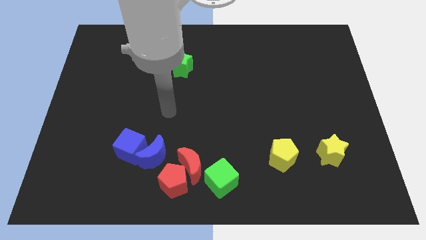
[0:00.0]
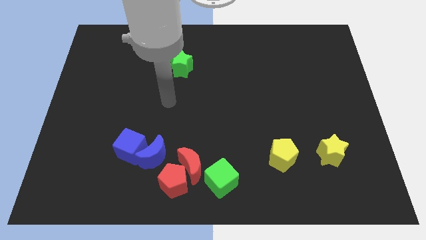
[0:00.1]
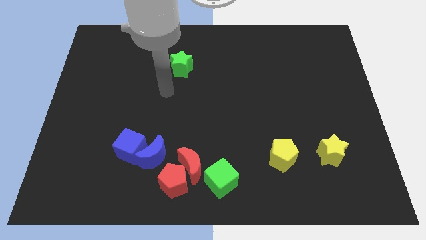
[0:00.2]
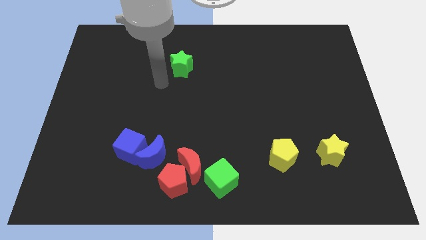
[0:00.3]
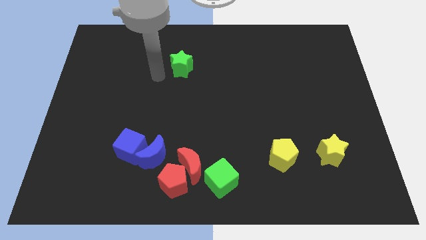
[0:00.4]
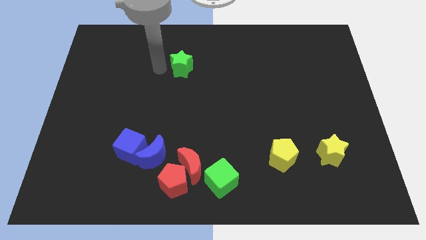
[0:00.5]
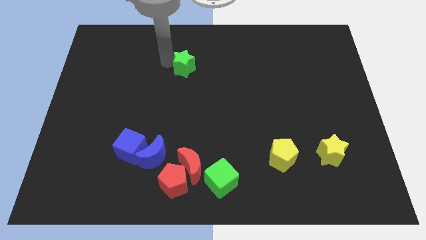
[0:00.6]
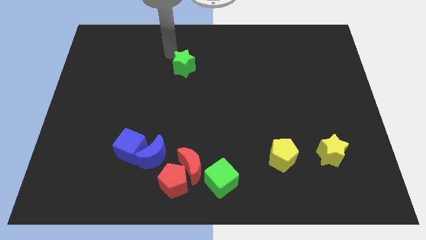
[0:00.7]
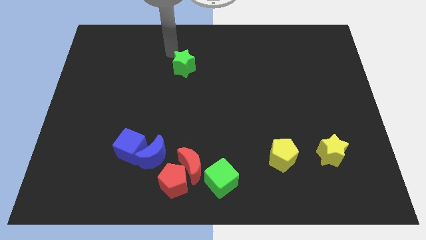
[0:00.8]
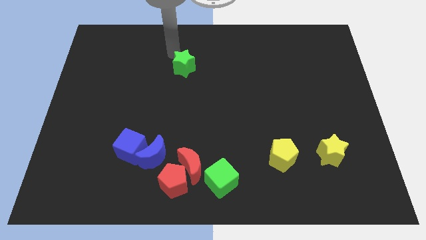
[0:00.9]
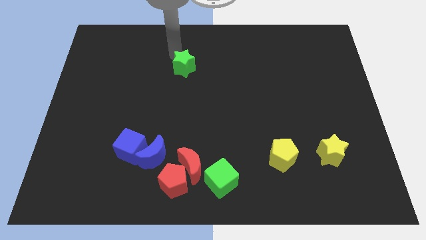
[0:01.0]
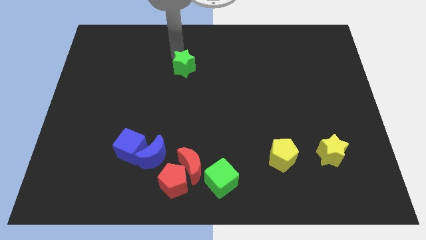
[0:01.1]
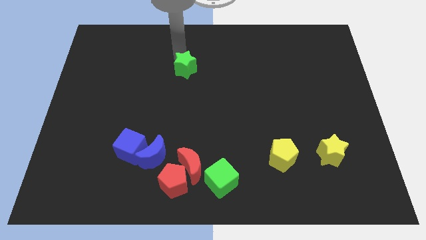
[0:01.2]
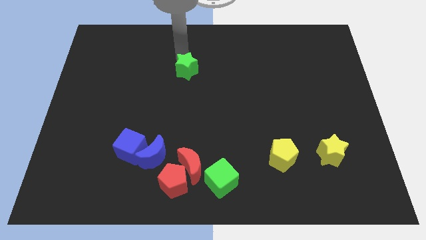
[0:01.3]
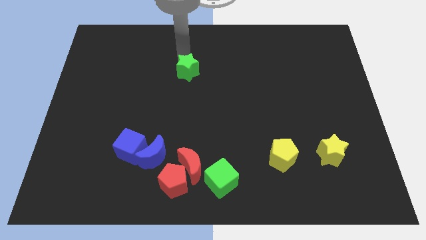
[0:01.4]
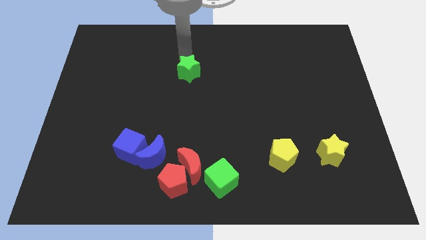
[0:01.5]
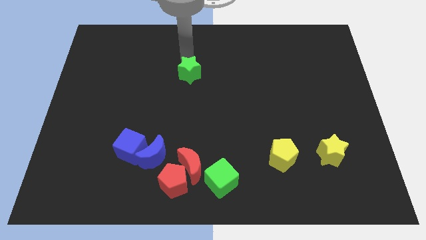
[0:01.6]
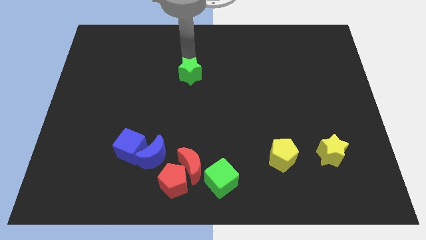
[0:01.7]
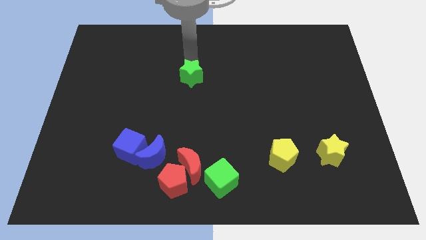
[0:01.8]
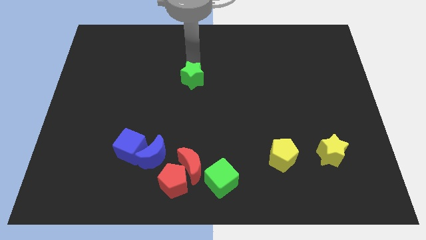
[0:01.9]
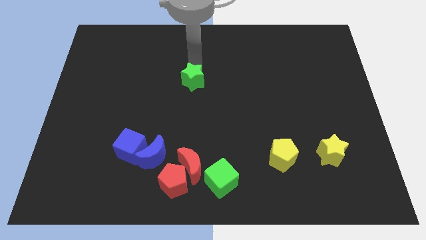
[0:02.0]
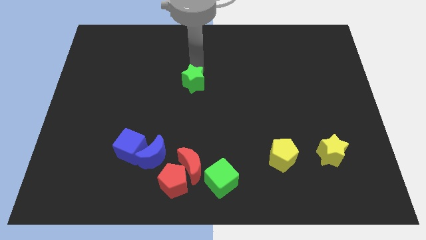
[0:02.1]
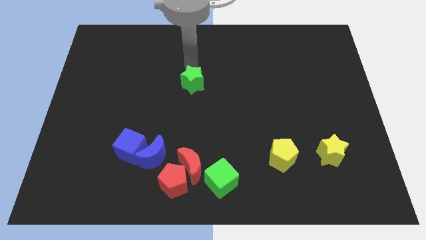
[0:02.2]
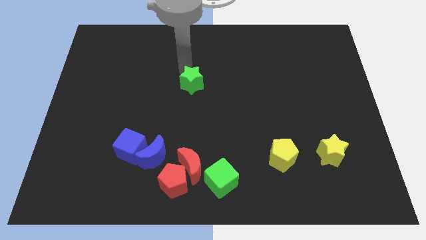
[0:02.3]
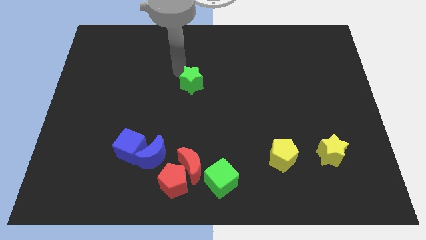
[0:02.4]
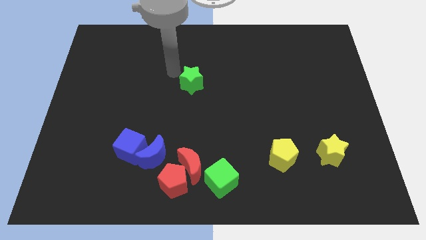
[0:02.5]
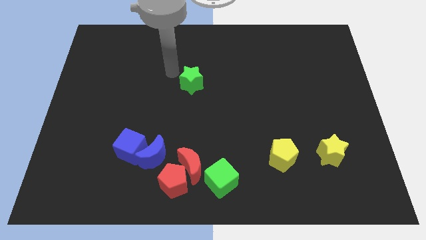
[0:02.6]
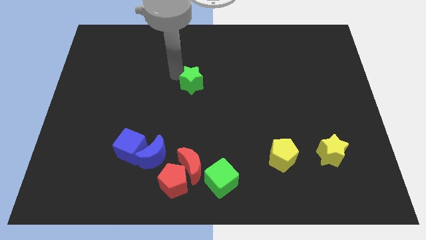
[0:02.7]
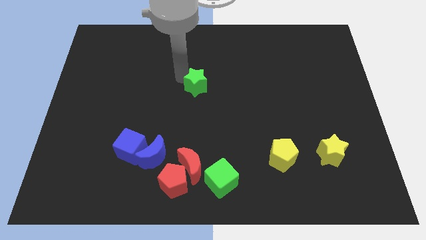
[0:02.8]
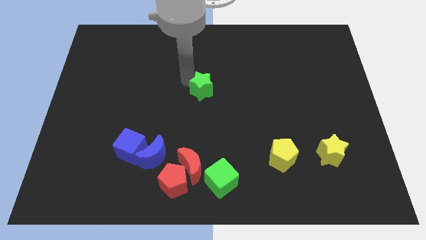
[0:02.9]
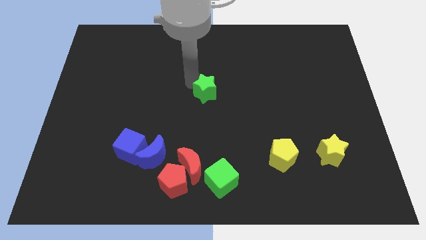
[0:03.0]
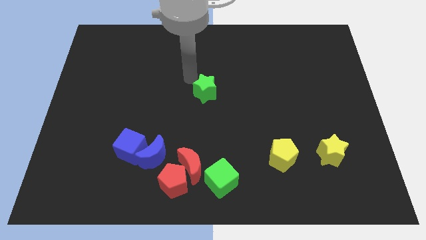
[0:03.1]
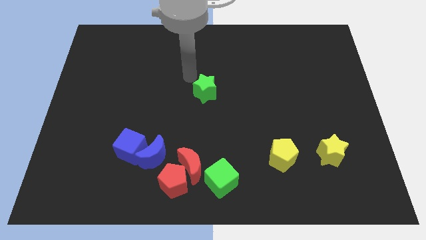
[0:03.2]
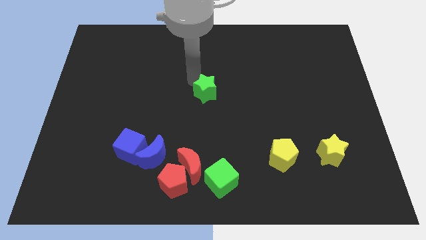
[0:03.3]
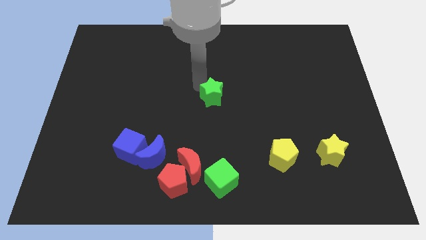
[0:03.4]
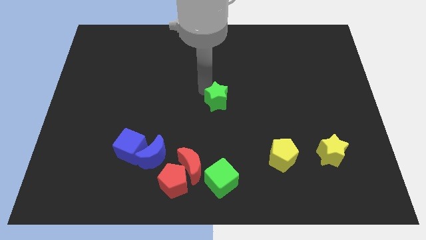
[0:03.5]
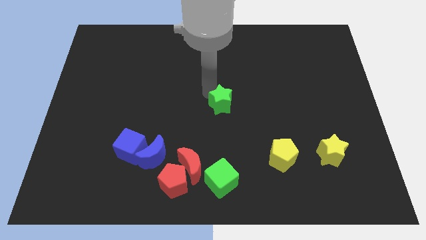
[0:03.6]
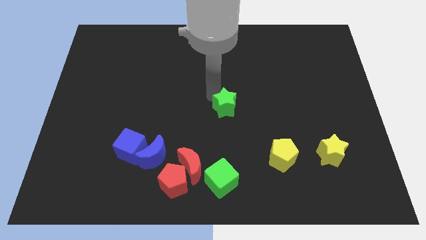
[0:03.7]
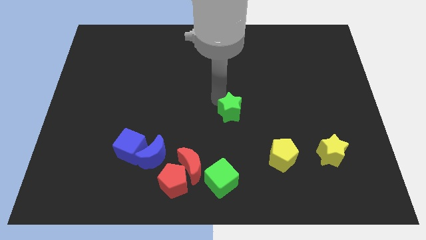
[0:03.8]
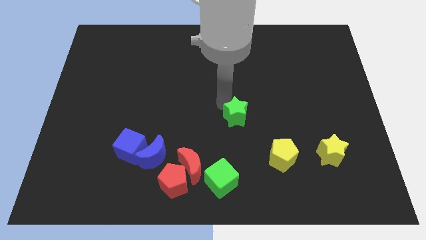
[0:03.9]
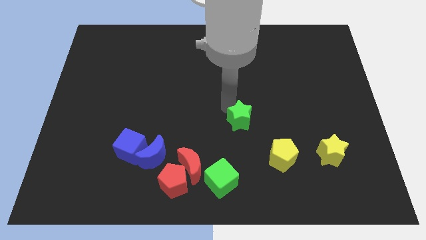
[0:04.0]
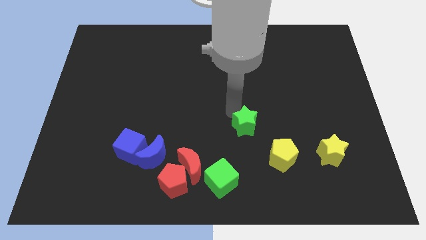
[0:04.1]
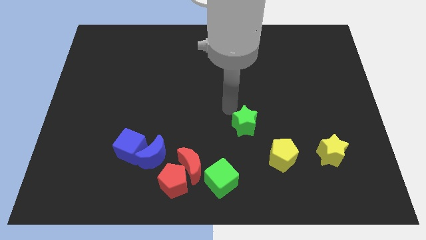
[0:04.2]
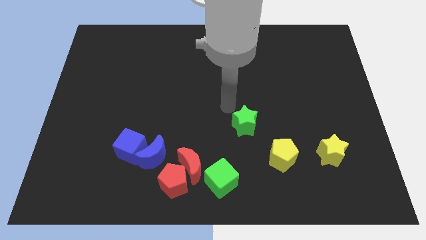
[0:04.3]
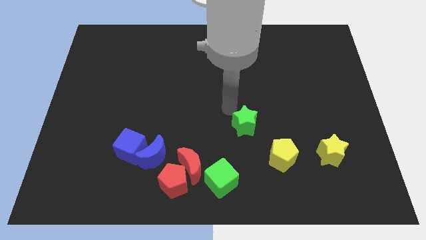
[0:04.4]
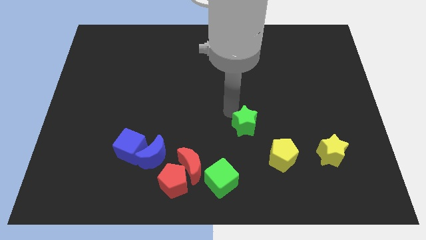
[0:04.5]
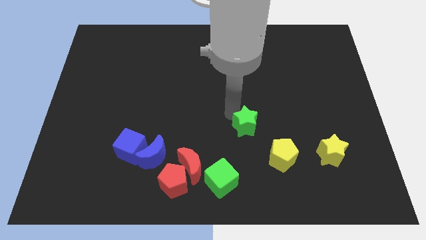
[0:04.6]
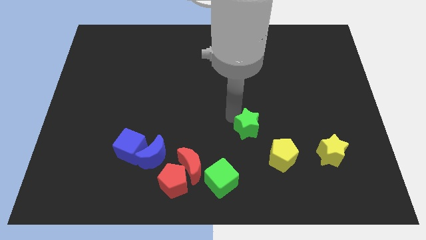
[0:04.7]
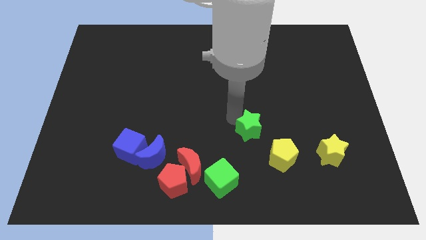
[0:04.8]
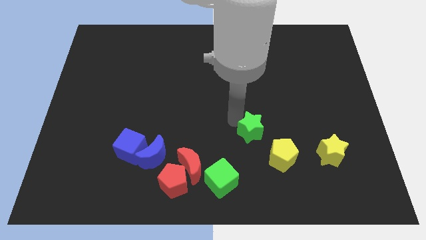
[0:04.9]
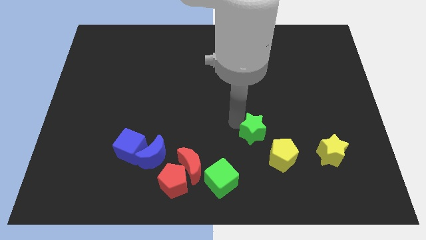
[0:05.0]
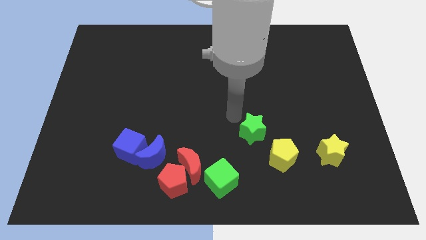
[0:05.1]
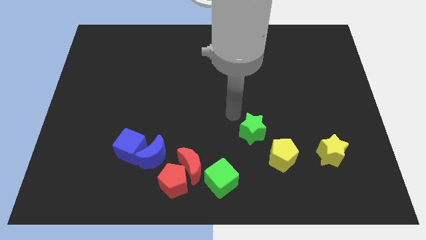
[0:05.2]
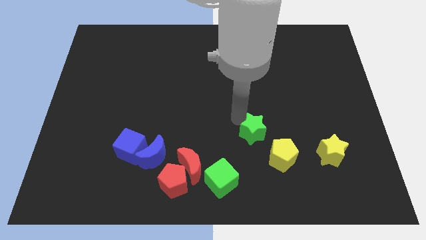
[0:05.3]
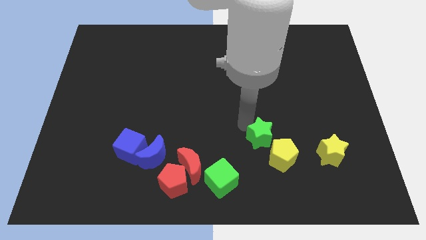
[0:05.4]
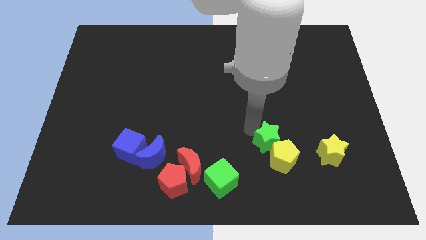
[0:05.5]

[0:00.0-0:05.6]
push the green star close to the yellow pentagon

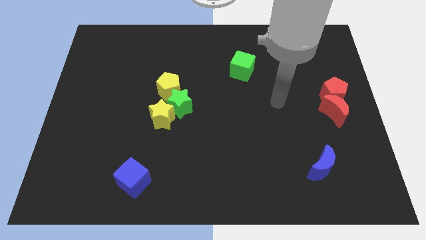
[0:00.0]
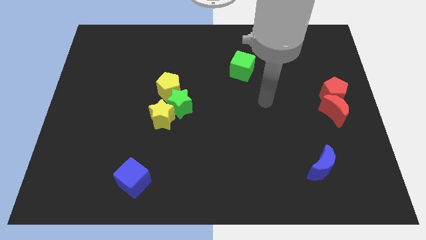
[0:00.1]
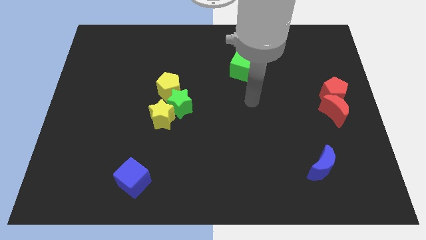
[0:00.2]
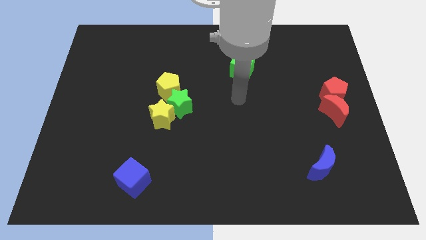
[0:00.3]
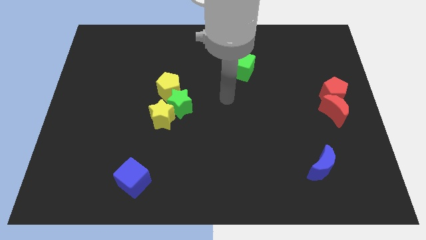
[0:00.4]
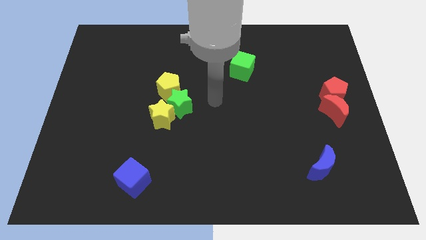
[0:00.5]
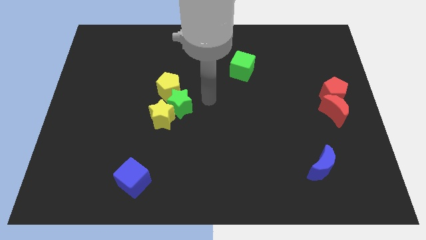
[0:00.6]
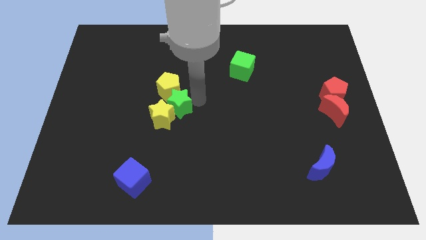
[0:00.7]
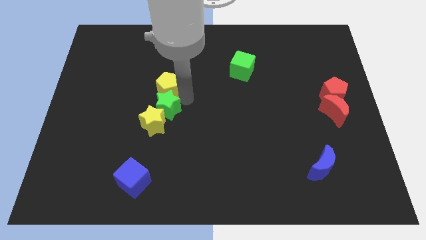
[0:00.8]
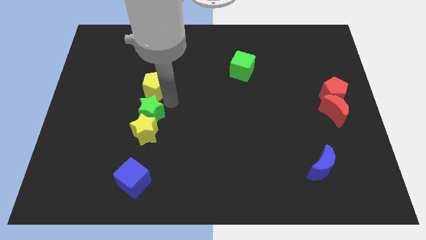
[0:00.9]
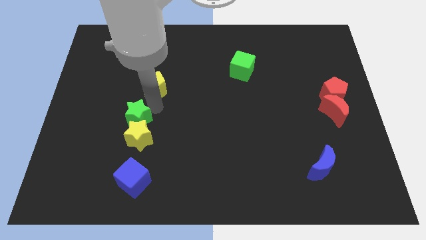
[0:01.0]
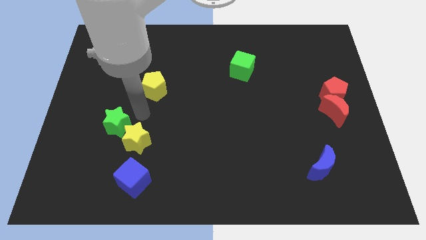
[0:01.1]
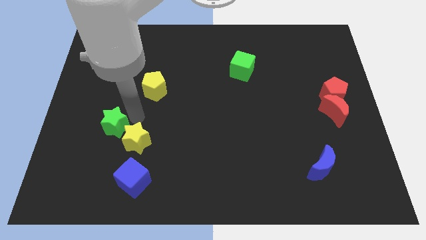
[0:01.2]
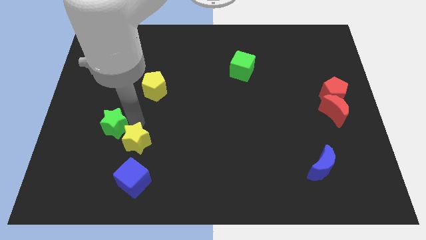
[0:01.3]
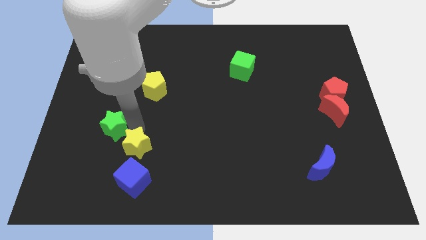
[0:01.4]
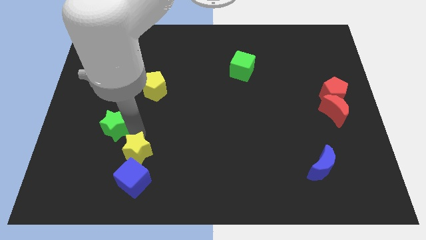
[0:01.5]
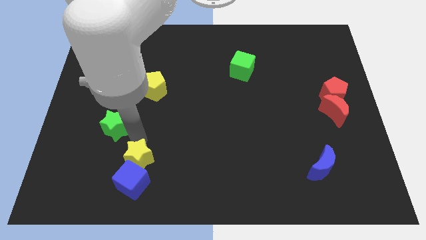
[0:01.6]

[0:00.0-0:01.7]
push the yellow star close to the blue cube

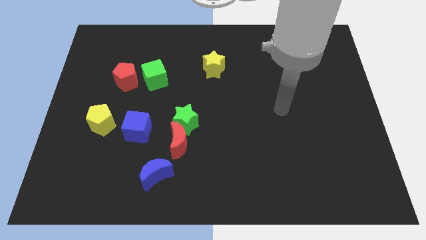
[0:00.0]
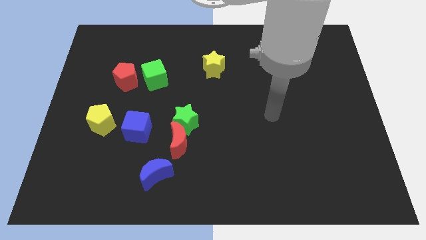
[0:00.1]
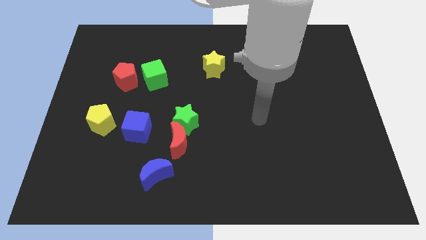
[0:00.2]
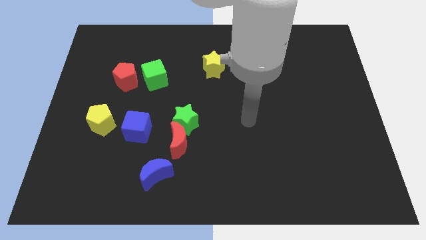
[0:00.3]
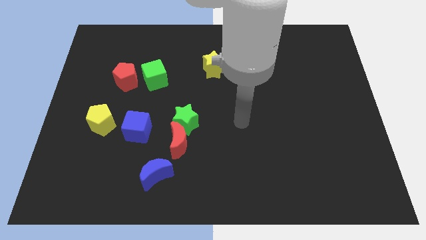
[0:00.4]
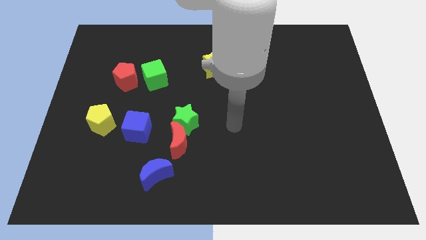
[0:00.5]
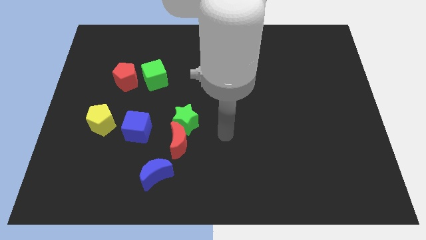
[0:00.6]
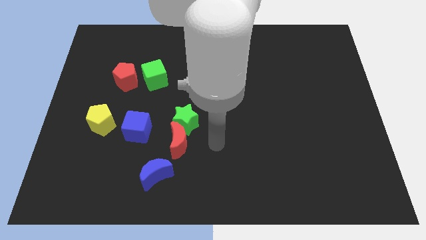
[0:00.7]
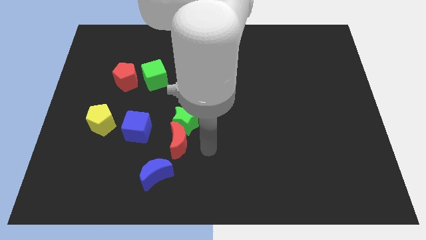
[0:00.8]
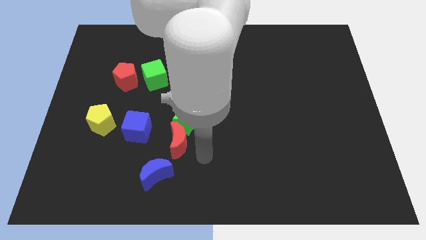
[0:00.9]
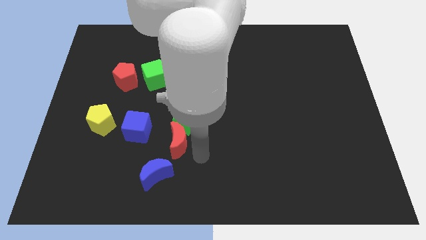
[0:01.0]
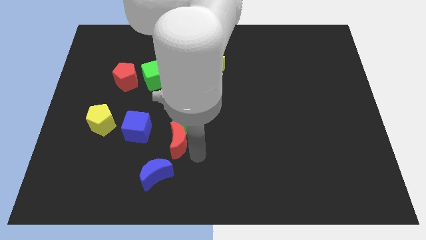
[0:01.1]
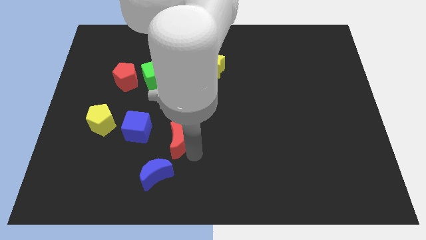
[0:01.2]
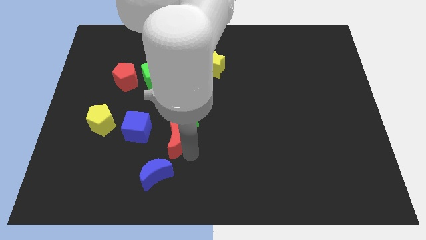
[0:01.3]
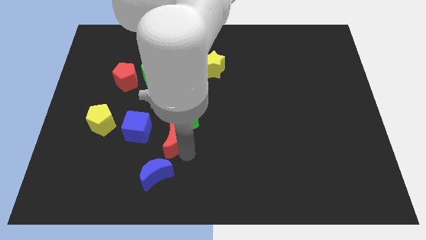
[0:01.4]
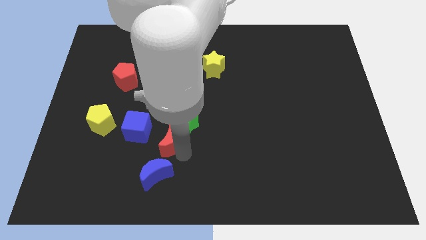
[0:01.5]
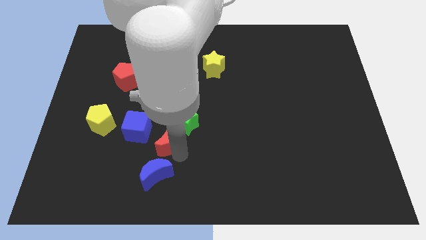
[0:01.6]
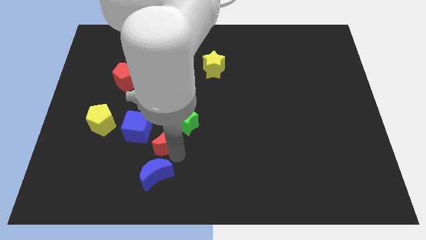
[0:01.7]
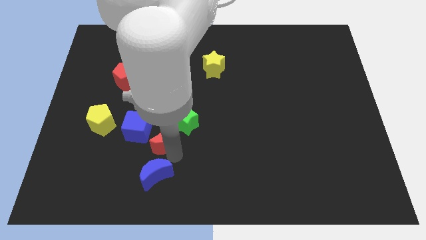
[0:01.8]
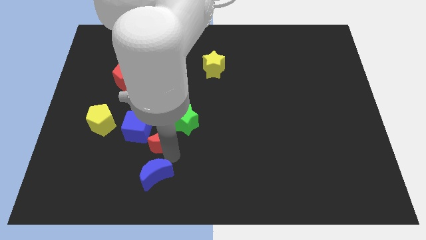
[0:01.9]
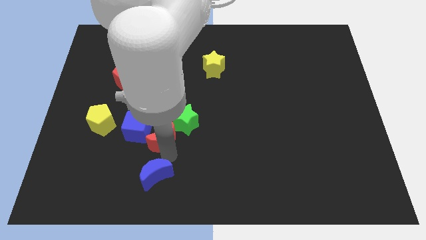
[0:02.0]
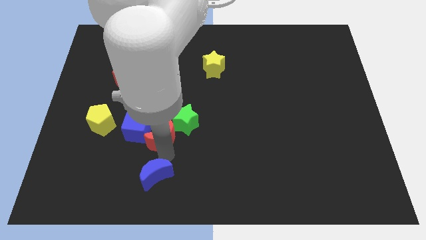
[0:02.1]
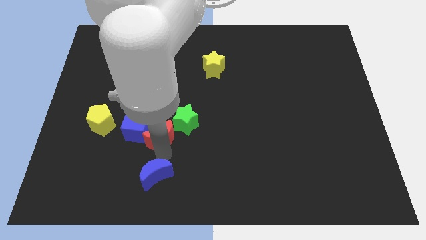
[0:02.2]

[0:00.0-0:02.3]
push the red moon towards the blue cube
